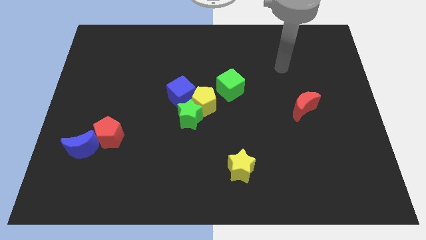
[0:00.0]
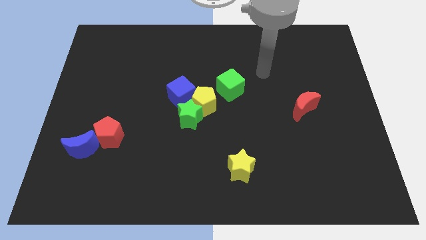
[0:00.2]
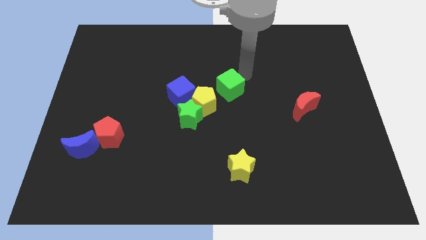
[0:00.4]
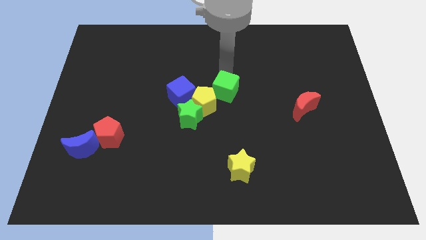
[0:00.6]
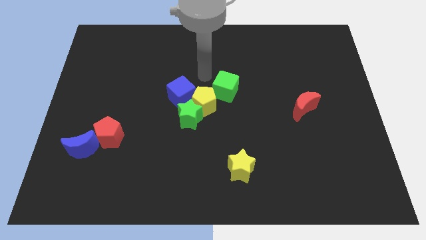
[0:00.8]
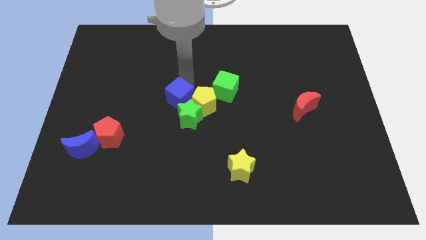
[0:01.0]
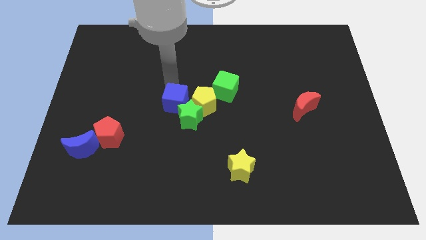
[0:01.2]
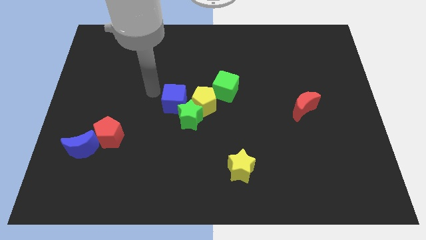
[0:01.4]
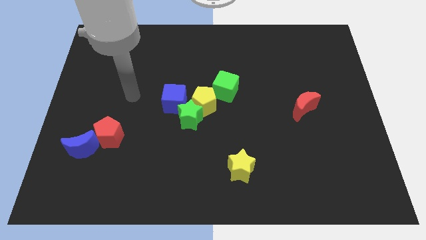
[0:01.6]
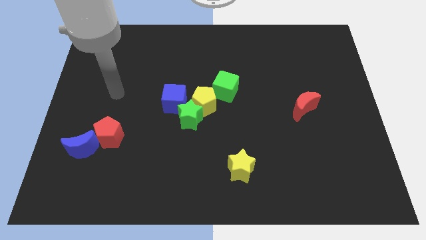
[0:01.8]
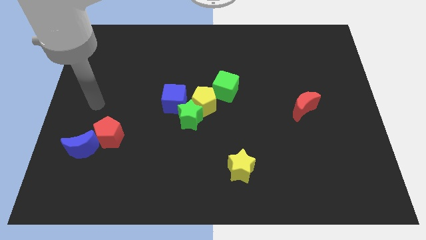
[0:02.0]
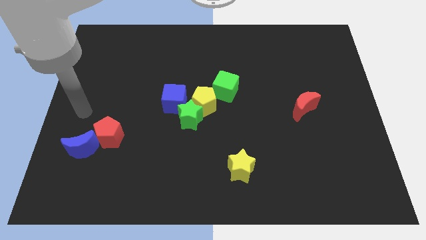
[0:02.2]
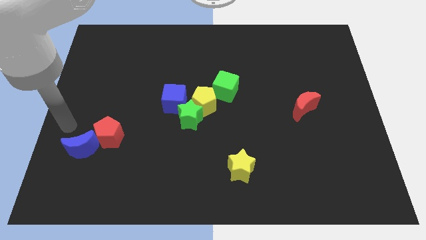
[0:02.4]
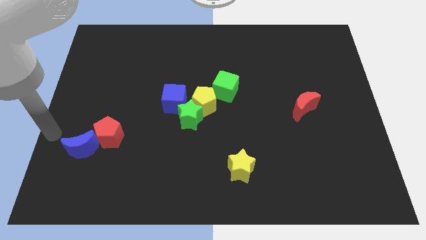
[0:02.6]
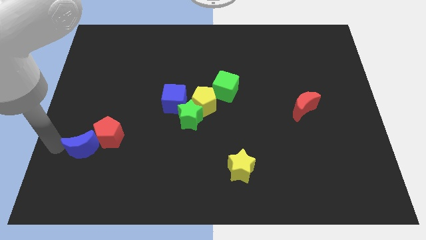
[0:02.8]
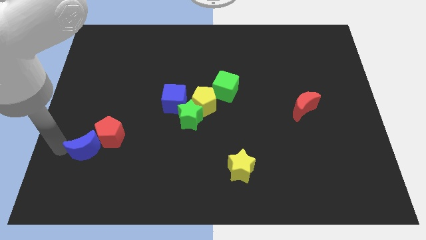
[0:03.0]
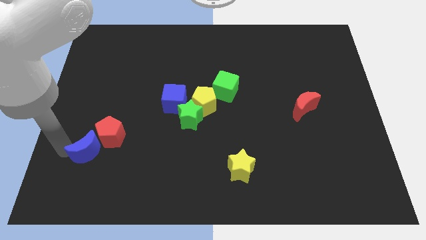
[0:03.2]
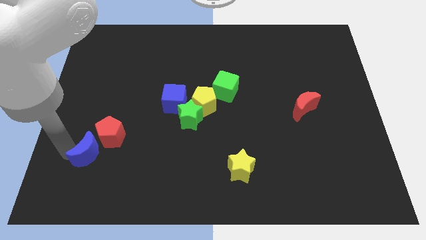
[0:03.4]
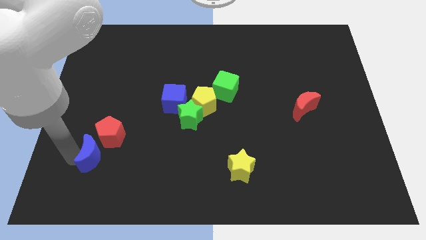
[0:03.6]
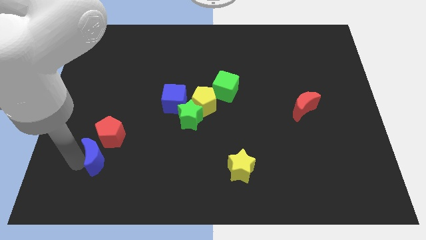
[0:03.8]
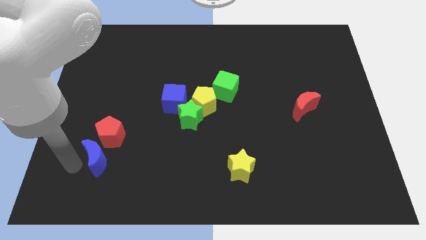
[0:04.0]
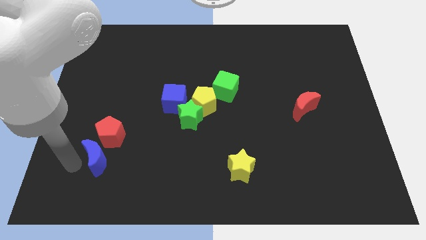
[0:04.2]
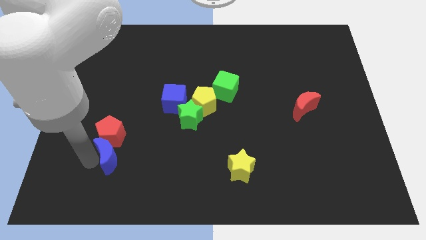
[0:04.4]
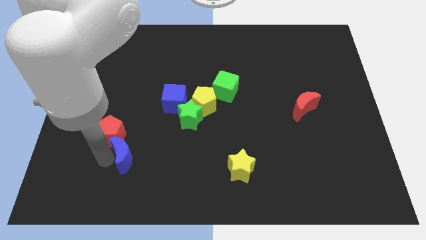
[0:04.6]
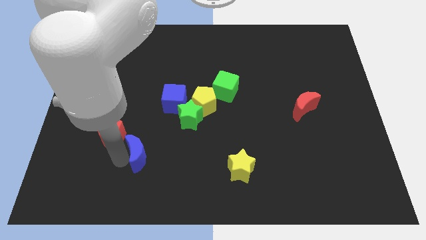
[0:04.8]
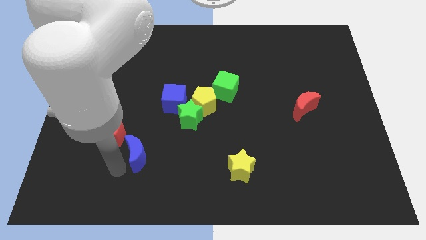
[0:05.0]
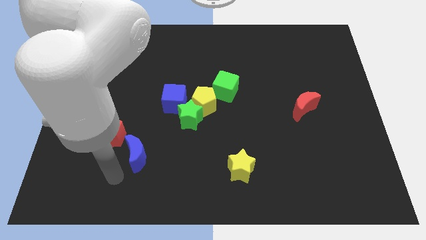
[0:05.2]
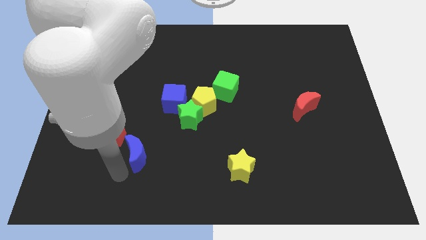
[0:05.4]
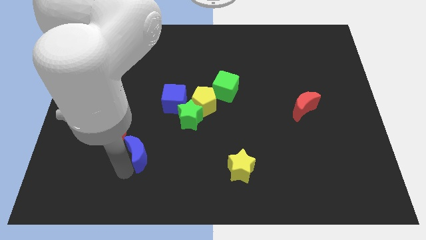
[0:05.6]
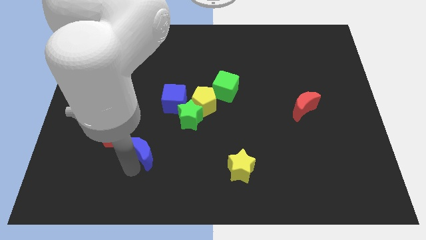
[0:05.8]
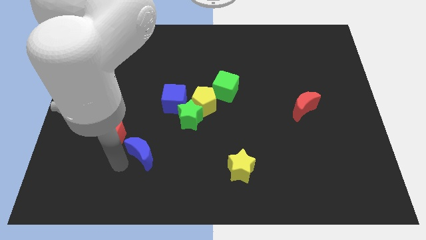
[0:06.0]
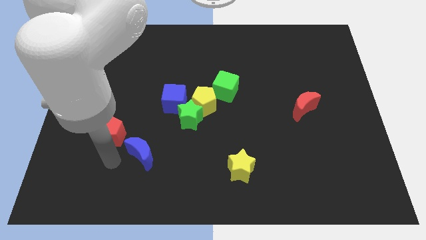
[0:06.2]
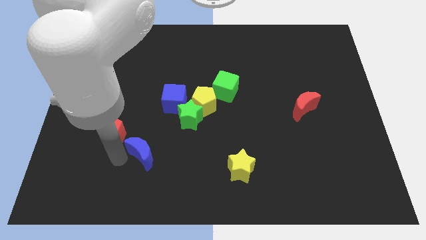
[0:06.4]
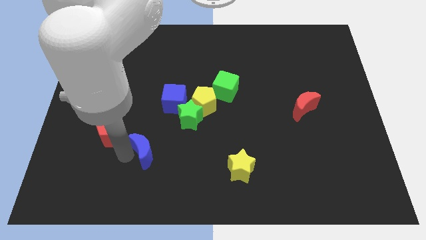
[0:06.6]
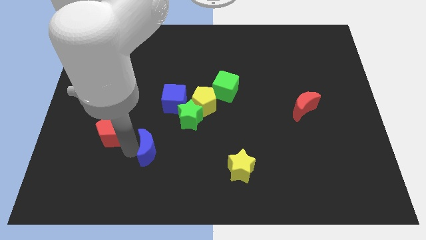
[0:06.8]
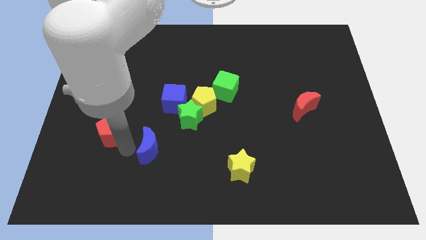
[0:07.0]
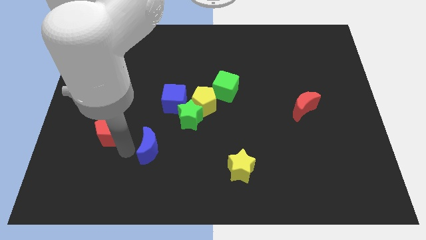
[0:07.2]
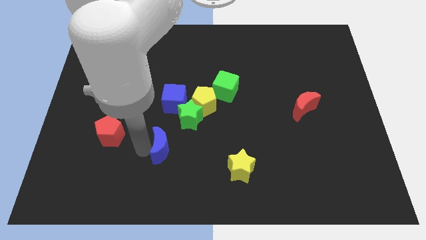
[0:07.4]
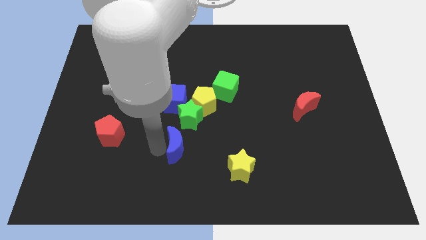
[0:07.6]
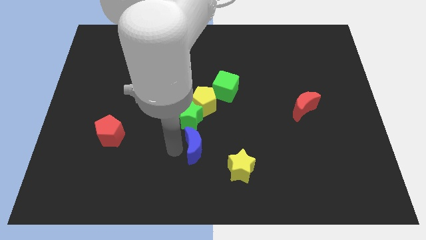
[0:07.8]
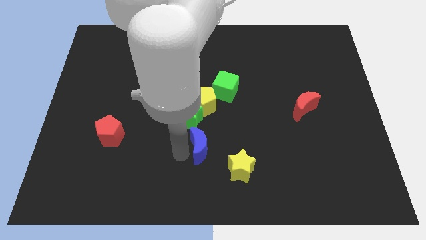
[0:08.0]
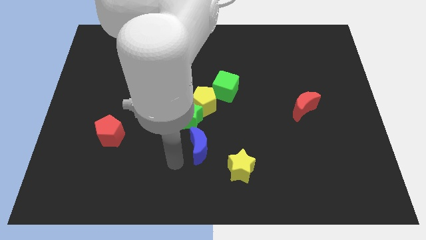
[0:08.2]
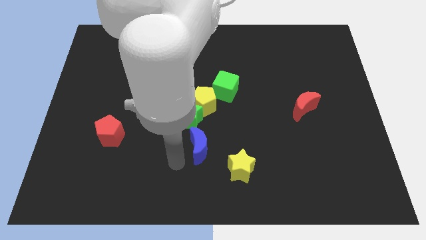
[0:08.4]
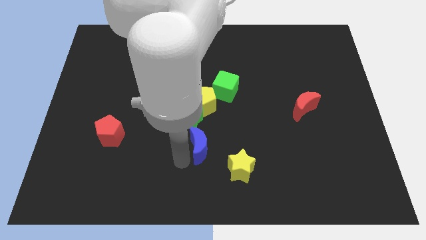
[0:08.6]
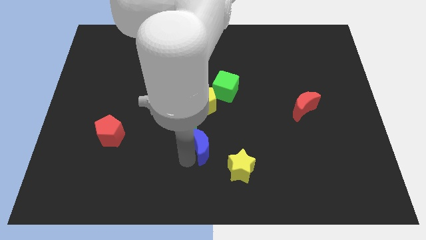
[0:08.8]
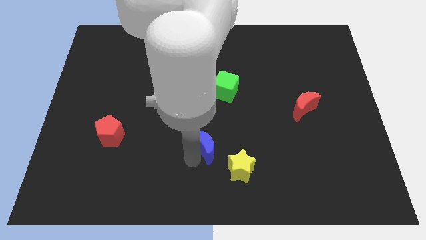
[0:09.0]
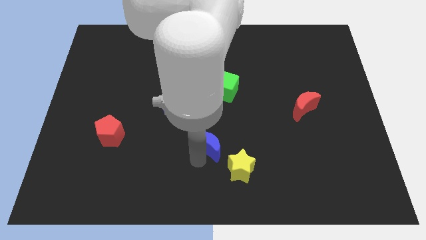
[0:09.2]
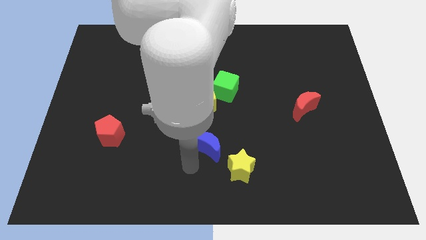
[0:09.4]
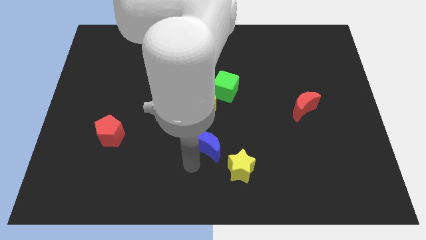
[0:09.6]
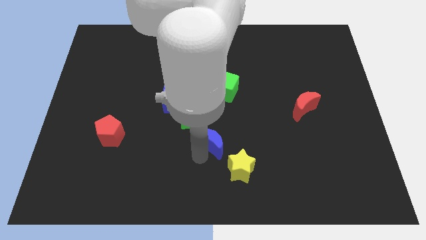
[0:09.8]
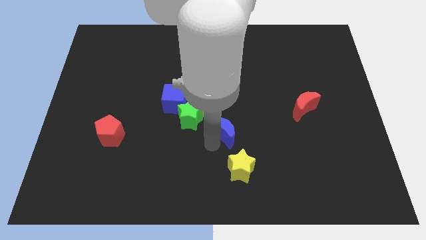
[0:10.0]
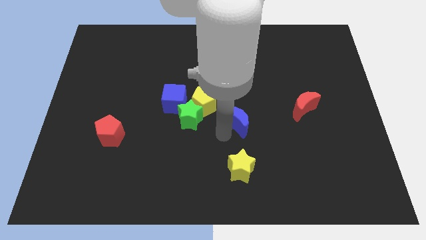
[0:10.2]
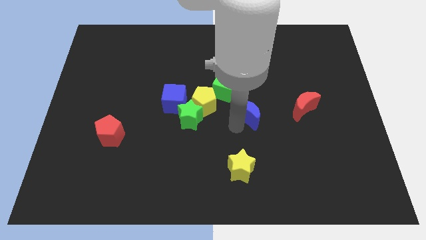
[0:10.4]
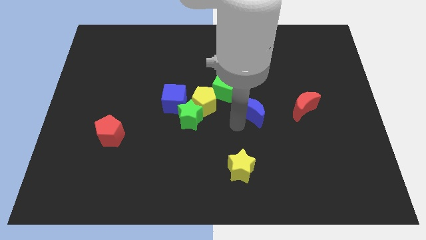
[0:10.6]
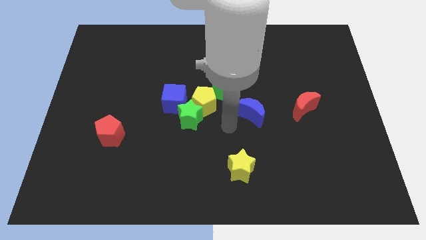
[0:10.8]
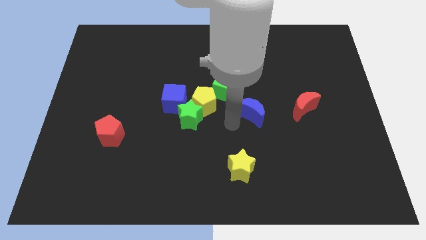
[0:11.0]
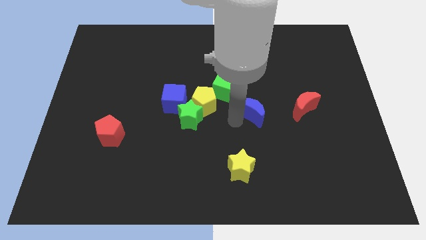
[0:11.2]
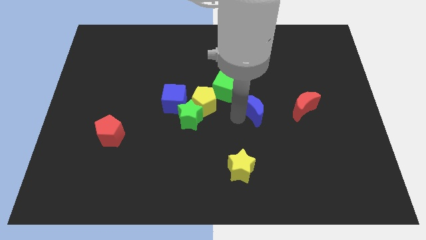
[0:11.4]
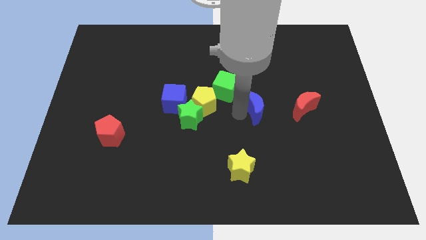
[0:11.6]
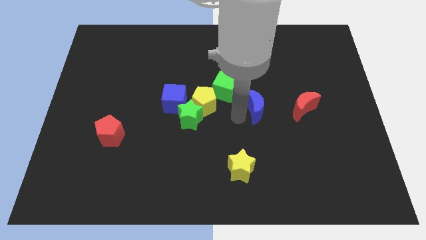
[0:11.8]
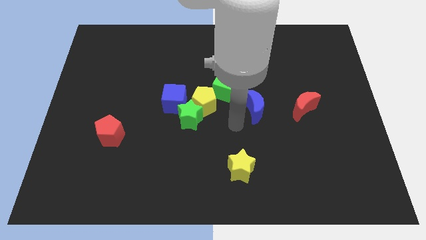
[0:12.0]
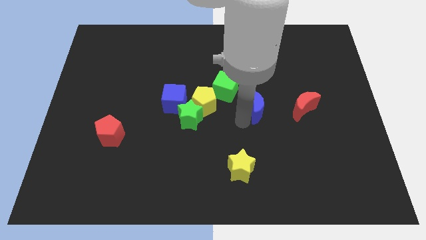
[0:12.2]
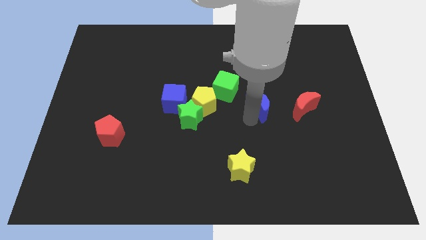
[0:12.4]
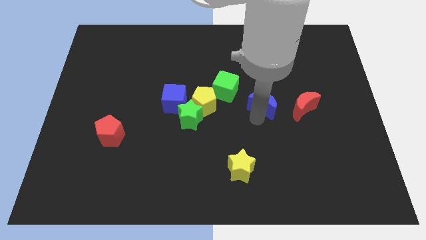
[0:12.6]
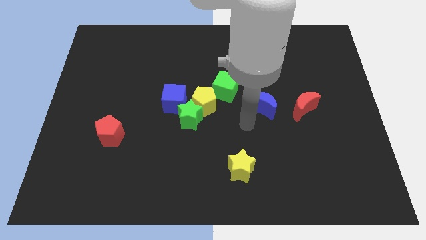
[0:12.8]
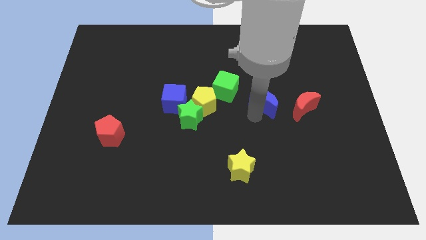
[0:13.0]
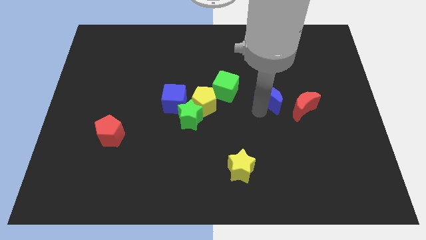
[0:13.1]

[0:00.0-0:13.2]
slide the blue moon diagonally up and to the left of the red moon

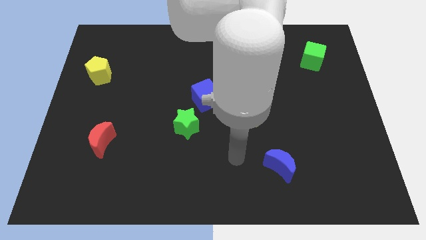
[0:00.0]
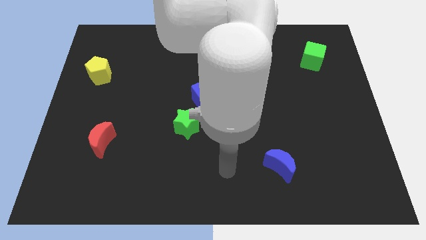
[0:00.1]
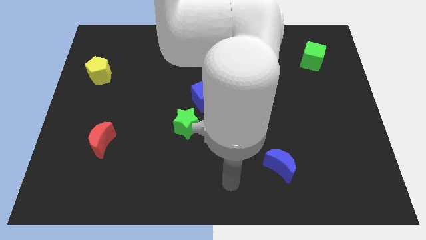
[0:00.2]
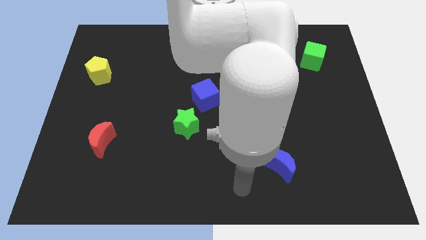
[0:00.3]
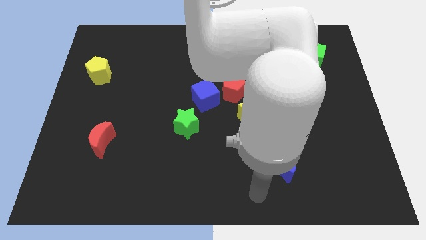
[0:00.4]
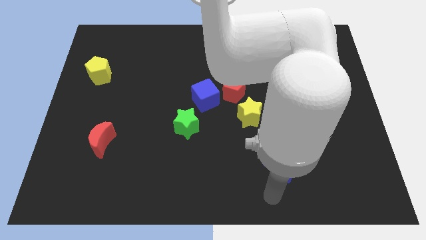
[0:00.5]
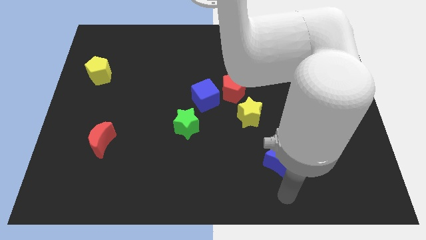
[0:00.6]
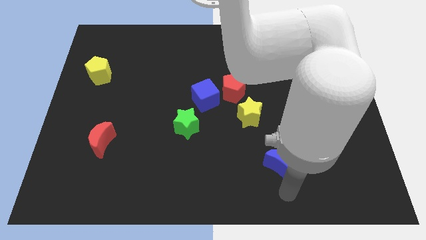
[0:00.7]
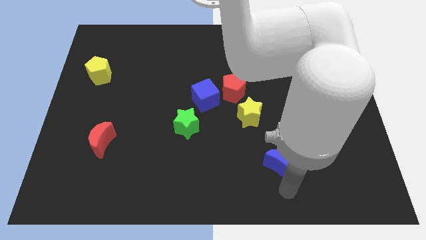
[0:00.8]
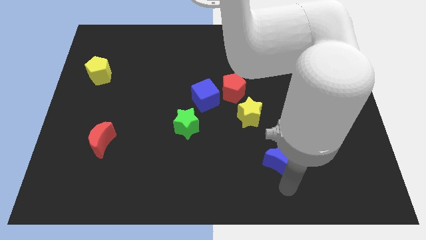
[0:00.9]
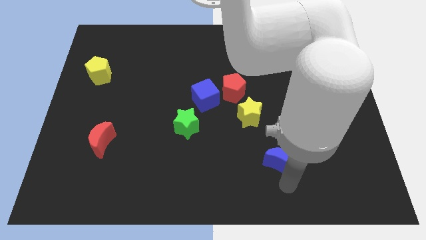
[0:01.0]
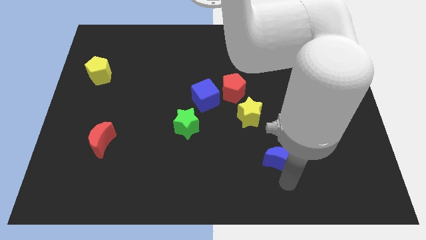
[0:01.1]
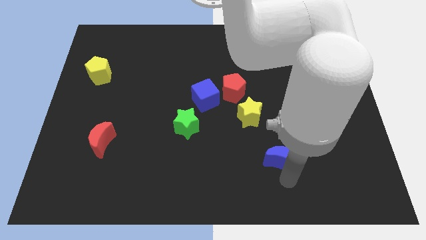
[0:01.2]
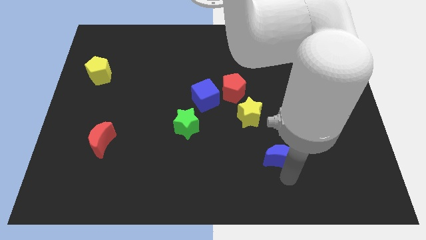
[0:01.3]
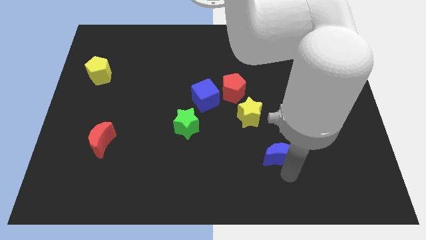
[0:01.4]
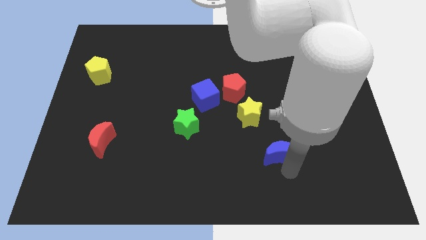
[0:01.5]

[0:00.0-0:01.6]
push the blue moon to the bottom right of the yellow star
